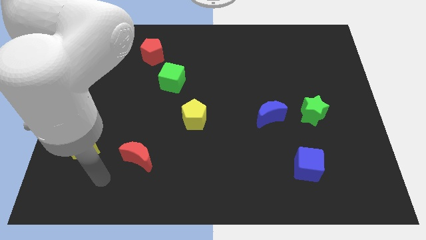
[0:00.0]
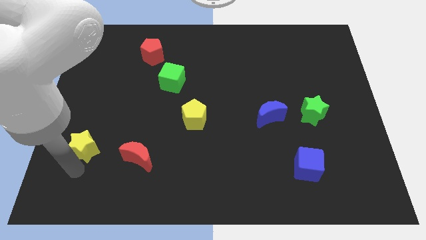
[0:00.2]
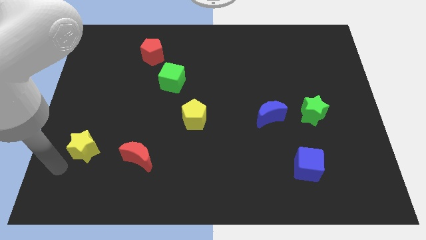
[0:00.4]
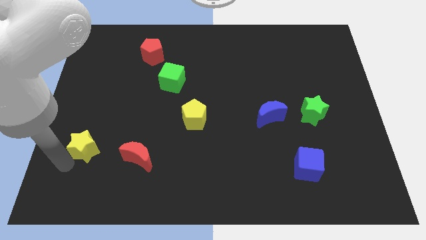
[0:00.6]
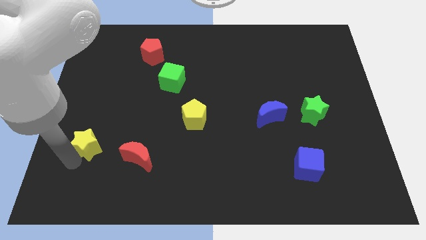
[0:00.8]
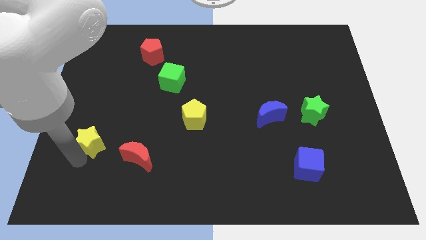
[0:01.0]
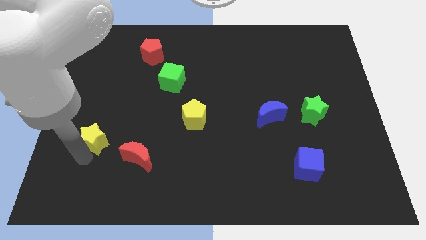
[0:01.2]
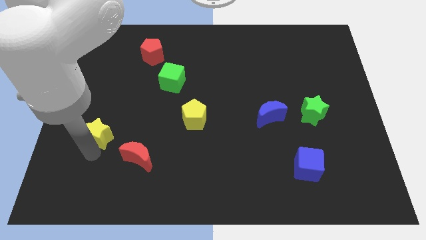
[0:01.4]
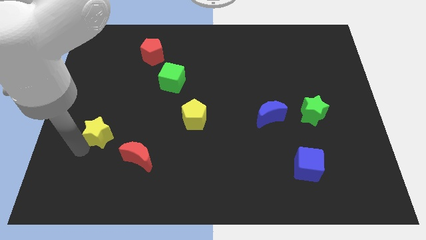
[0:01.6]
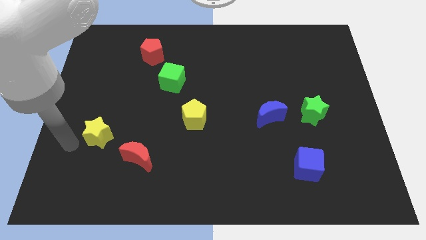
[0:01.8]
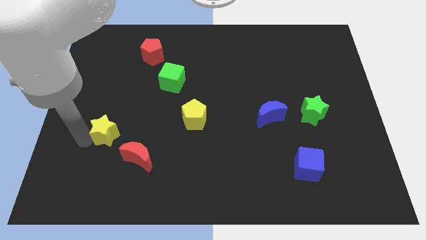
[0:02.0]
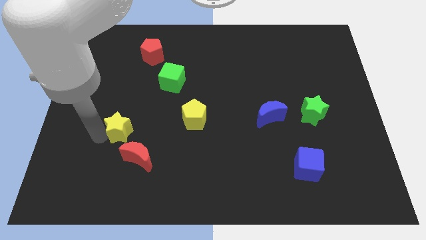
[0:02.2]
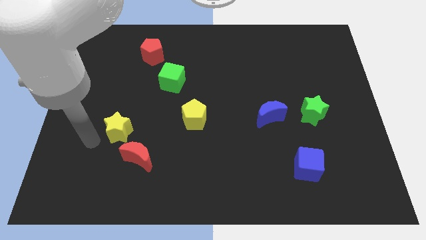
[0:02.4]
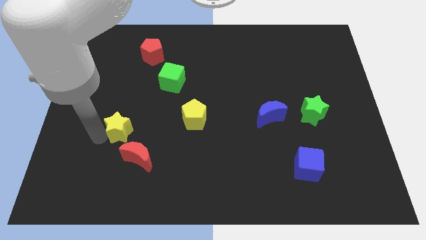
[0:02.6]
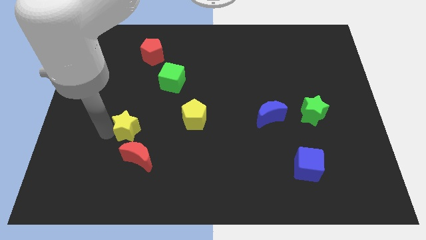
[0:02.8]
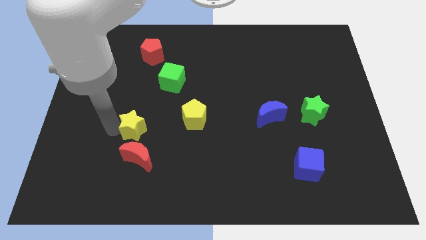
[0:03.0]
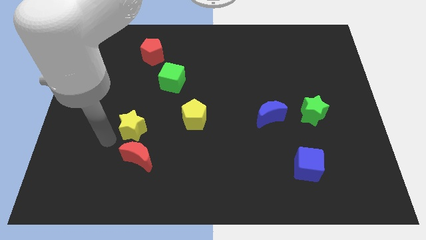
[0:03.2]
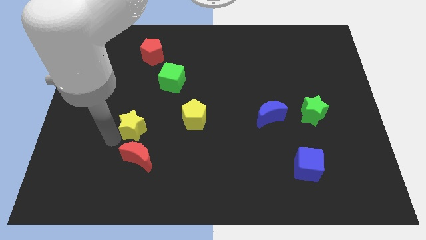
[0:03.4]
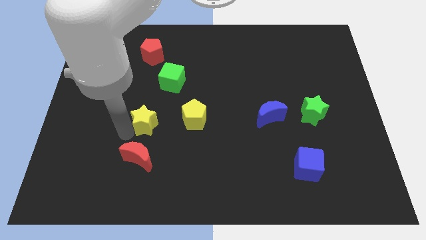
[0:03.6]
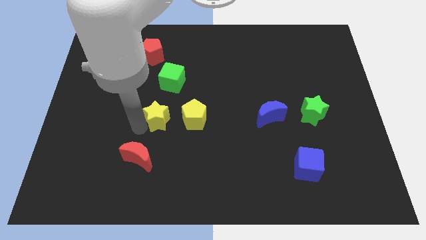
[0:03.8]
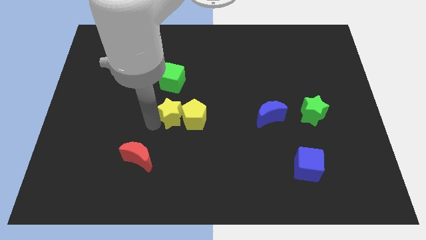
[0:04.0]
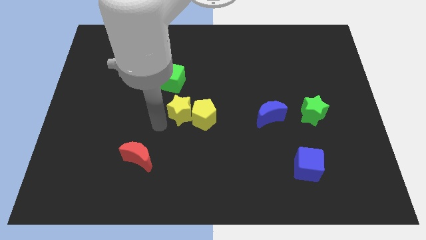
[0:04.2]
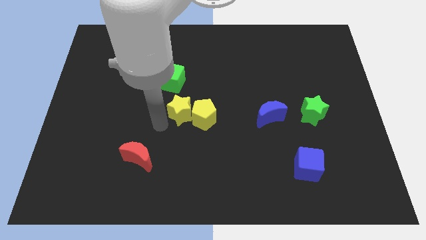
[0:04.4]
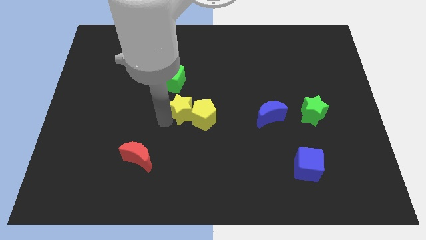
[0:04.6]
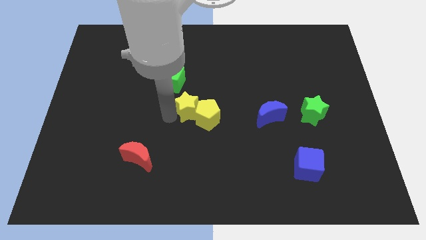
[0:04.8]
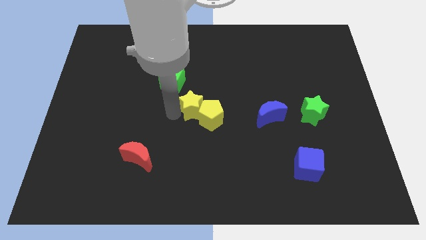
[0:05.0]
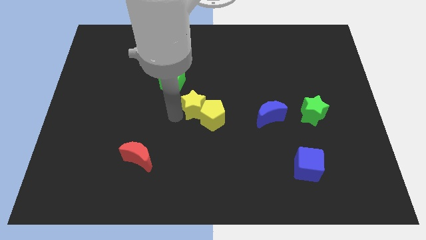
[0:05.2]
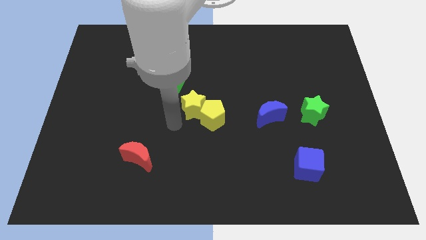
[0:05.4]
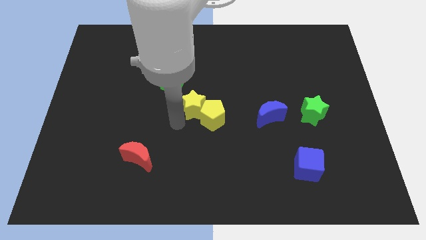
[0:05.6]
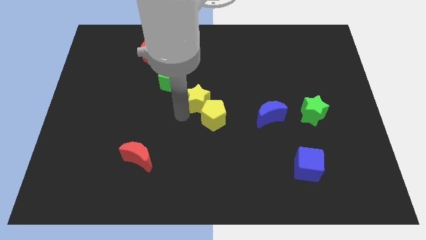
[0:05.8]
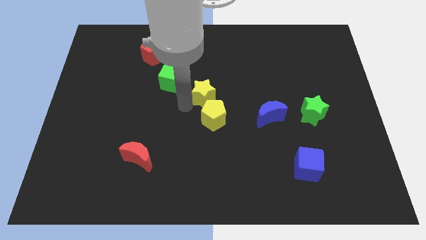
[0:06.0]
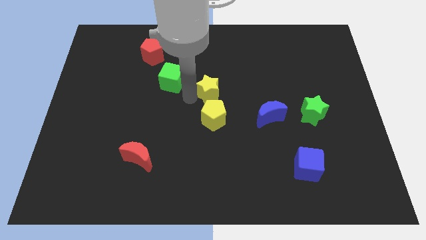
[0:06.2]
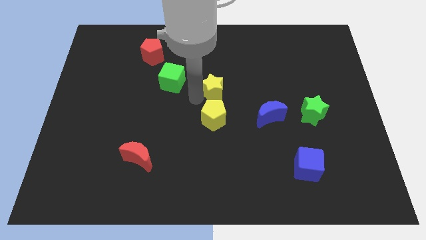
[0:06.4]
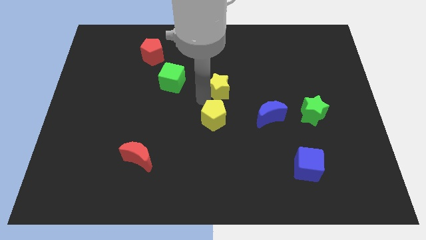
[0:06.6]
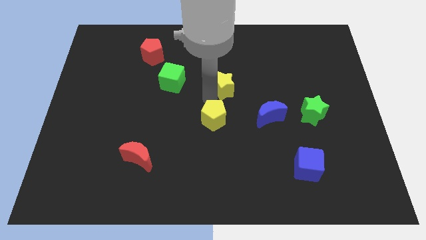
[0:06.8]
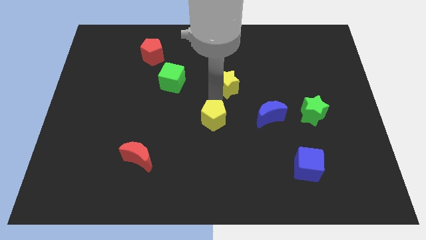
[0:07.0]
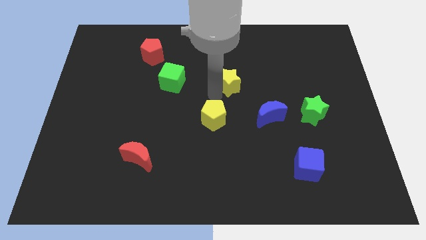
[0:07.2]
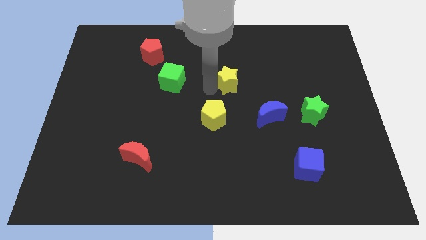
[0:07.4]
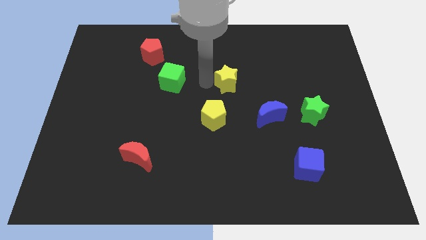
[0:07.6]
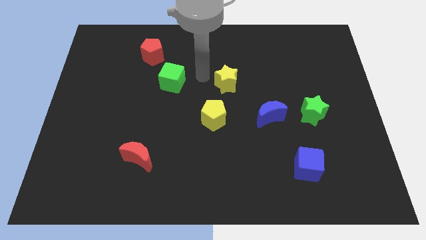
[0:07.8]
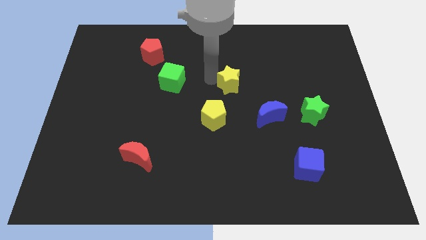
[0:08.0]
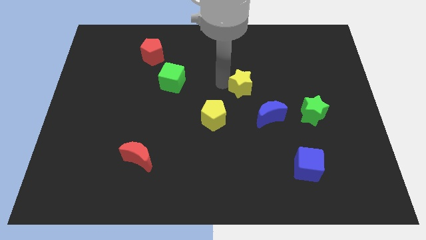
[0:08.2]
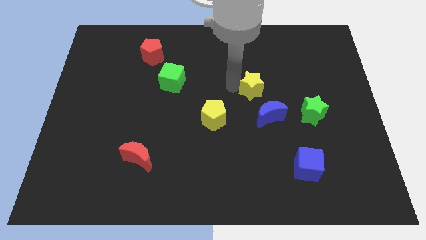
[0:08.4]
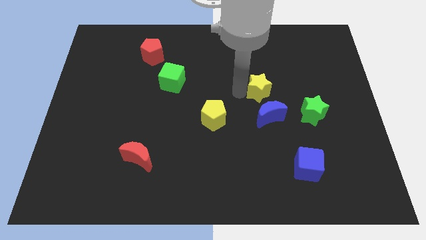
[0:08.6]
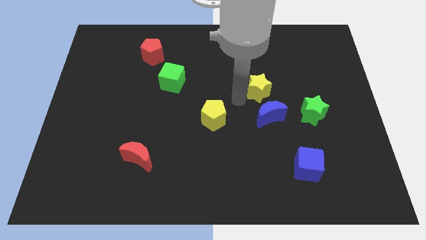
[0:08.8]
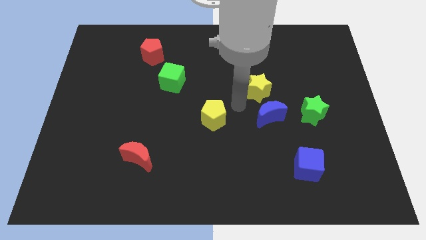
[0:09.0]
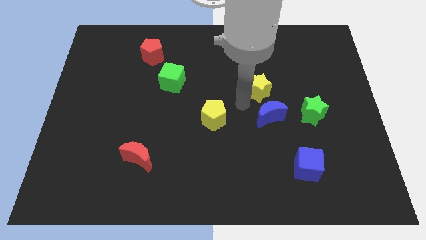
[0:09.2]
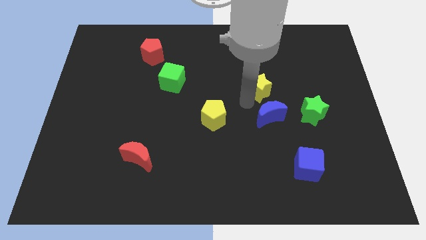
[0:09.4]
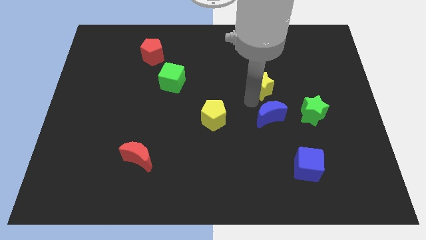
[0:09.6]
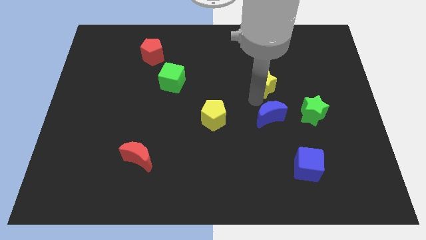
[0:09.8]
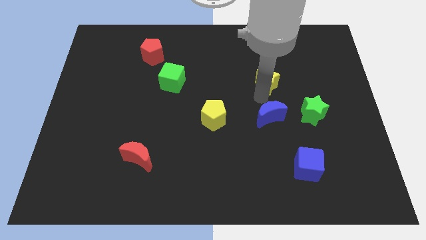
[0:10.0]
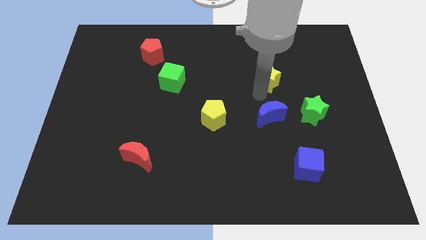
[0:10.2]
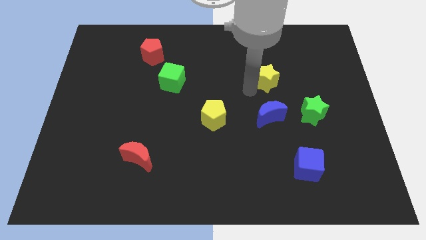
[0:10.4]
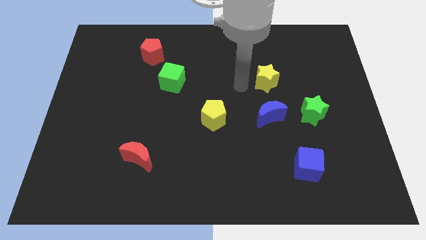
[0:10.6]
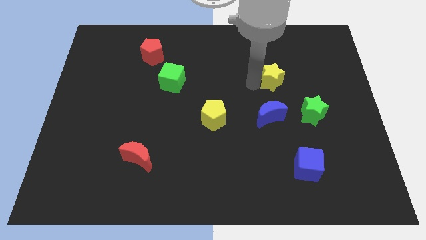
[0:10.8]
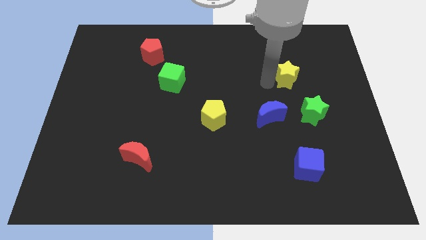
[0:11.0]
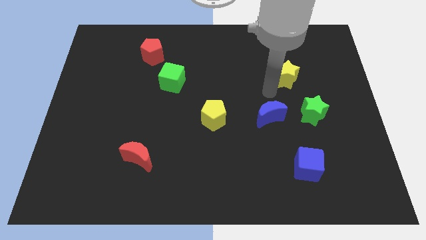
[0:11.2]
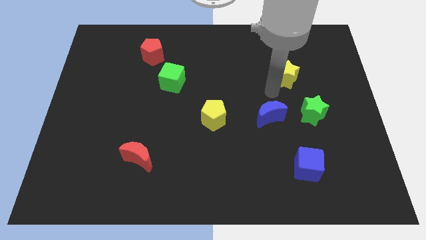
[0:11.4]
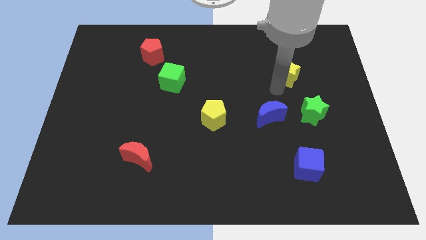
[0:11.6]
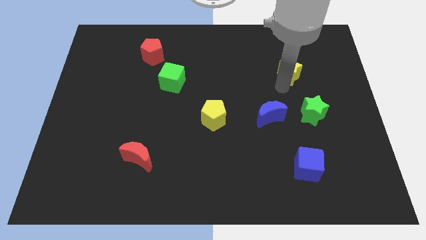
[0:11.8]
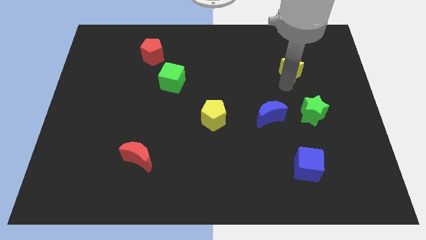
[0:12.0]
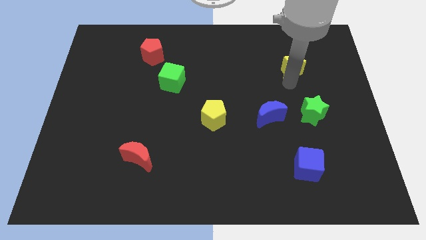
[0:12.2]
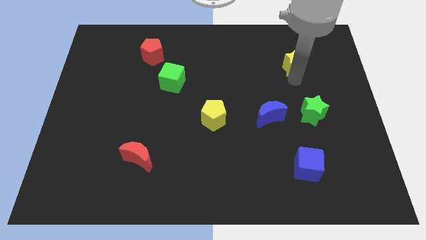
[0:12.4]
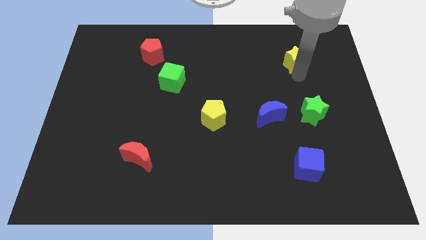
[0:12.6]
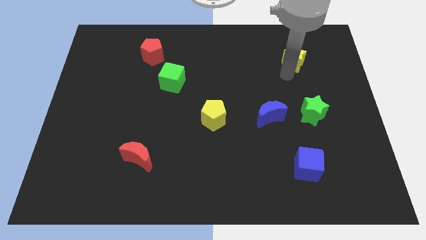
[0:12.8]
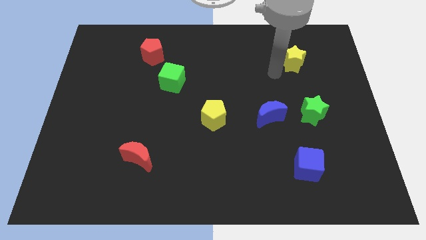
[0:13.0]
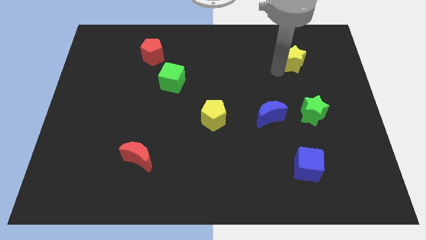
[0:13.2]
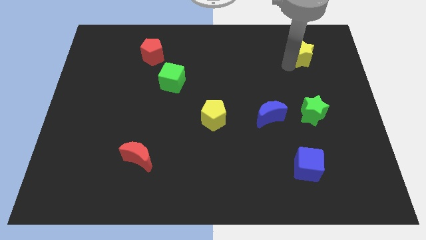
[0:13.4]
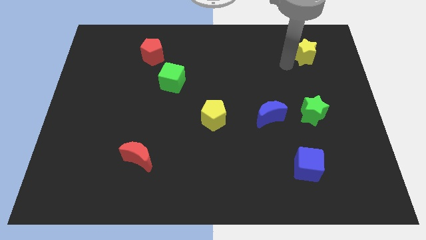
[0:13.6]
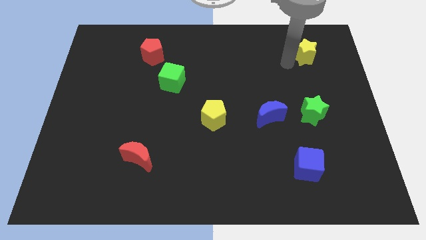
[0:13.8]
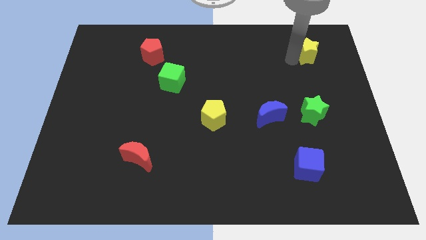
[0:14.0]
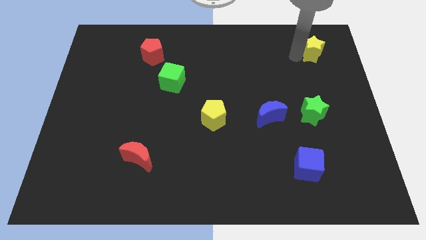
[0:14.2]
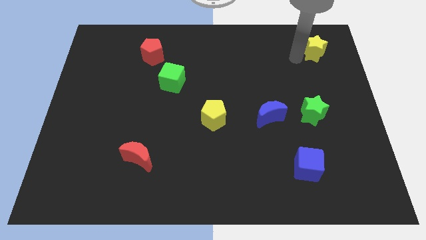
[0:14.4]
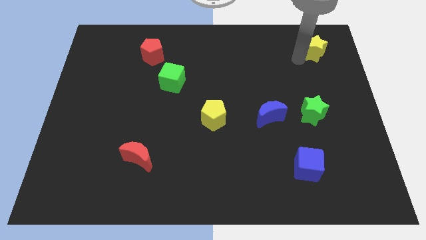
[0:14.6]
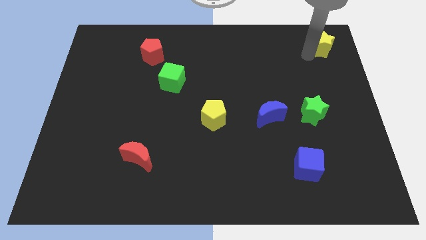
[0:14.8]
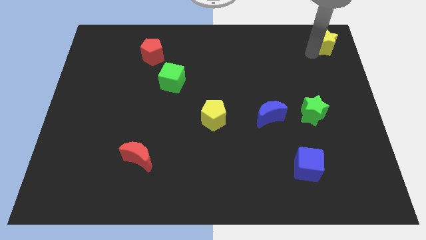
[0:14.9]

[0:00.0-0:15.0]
push the yellow star to the upper right corner
